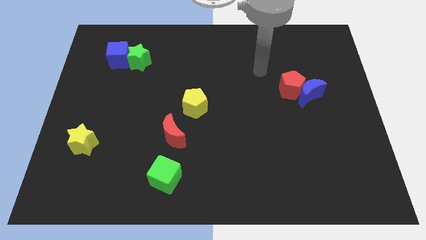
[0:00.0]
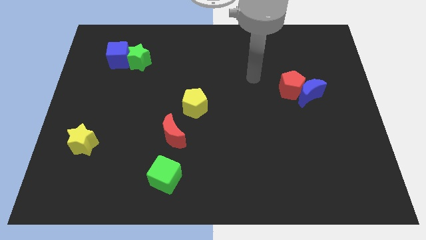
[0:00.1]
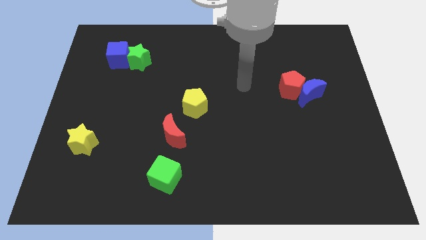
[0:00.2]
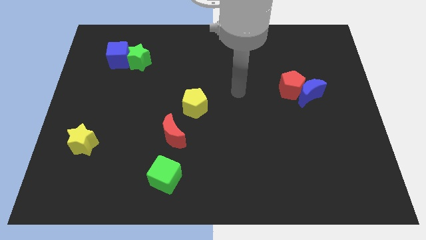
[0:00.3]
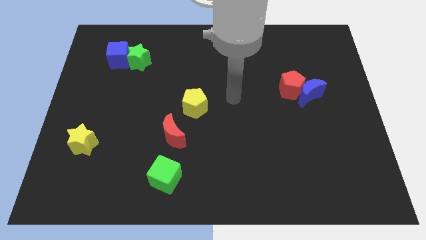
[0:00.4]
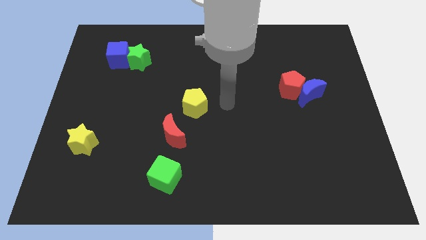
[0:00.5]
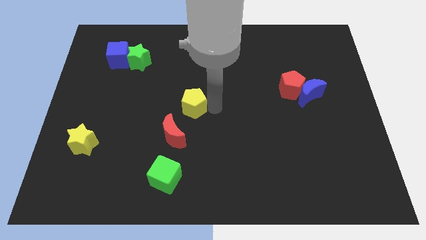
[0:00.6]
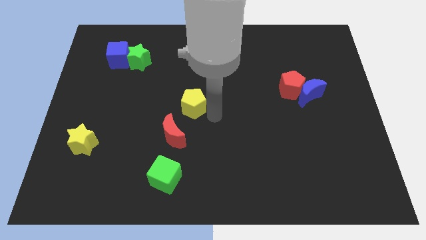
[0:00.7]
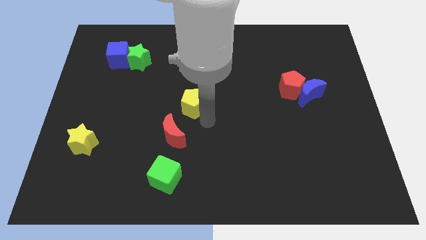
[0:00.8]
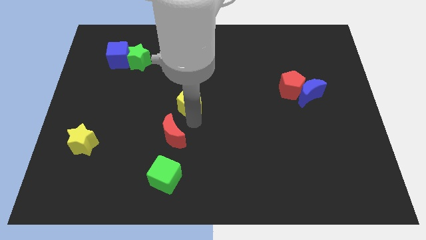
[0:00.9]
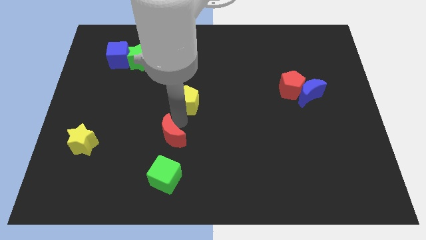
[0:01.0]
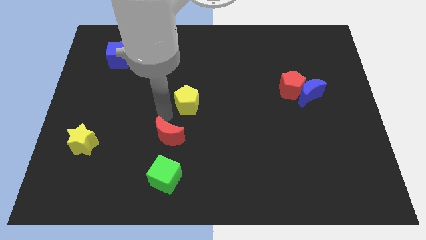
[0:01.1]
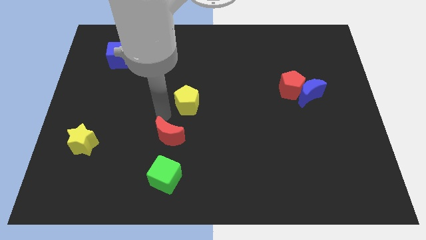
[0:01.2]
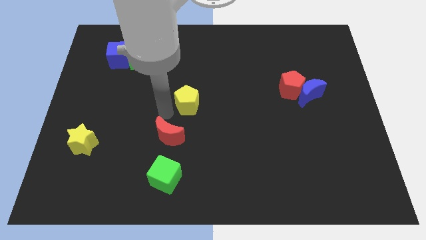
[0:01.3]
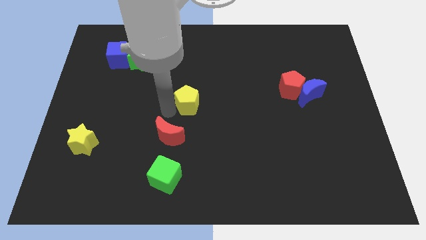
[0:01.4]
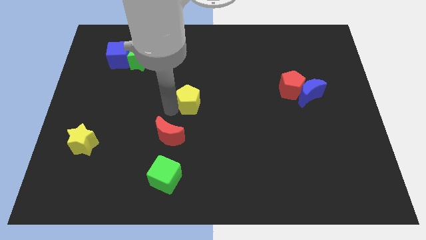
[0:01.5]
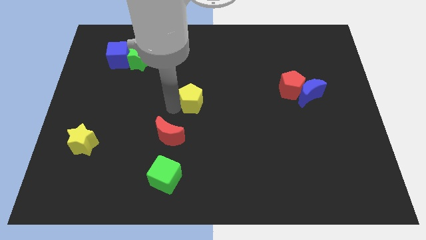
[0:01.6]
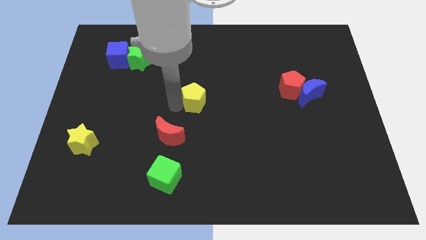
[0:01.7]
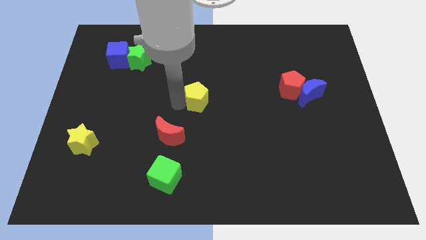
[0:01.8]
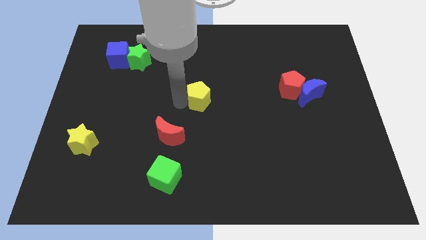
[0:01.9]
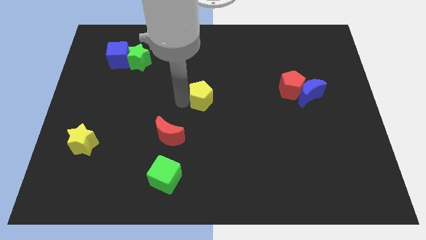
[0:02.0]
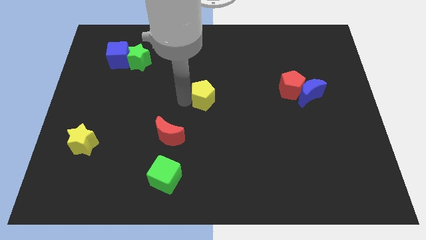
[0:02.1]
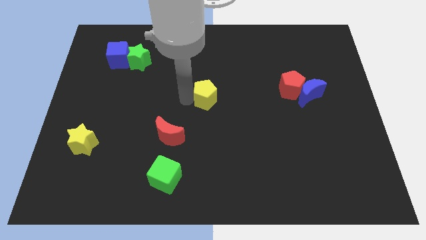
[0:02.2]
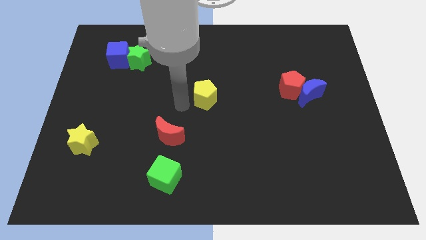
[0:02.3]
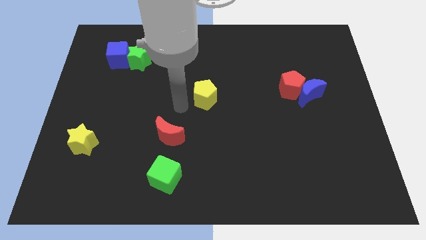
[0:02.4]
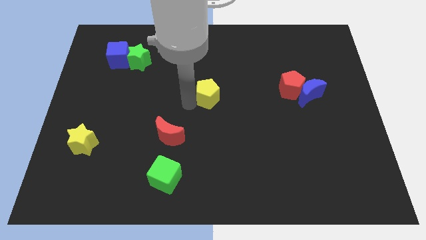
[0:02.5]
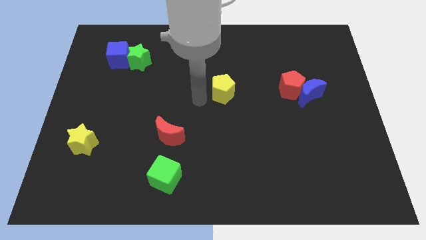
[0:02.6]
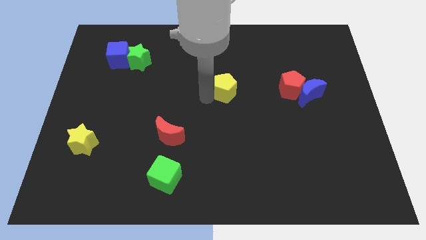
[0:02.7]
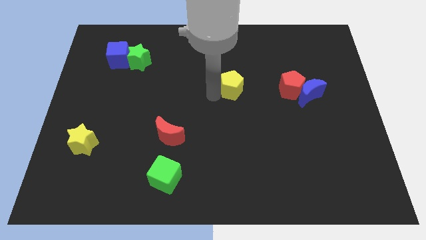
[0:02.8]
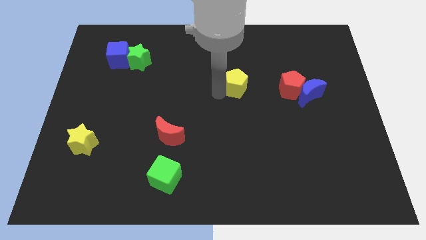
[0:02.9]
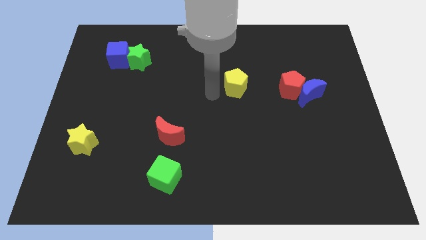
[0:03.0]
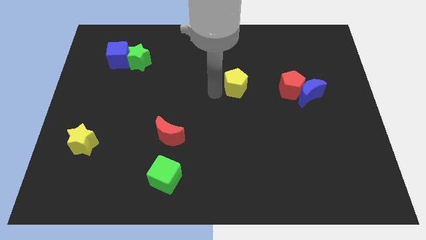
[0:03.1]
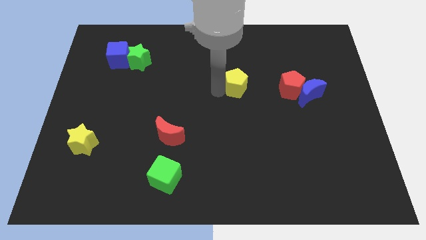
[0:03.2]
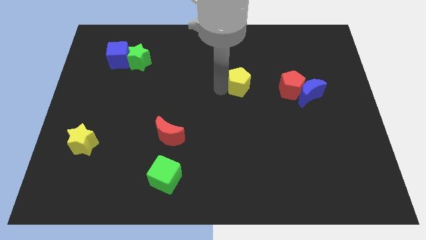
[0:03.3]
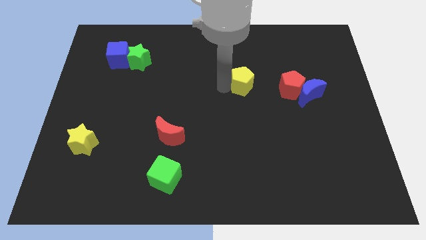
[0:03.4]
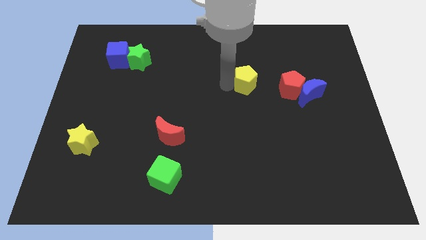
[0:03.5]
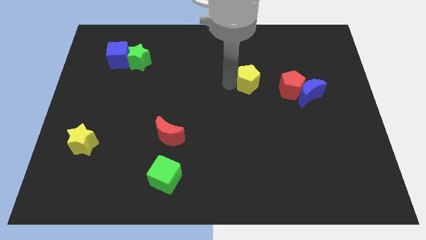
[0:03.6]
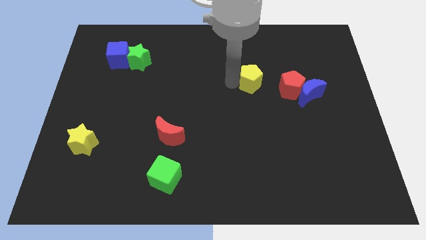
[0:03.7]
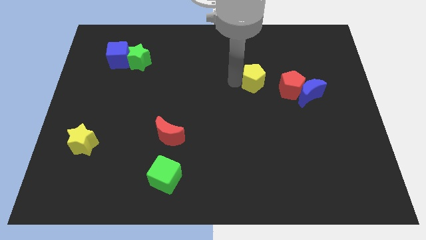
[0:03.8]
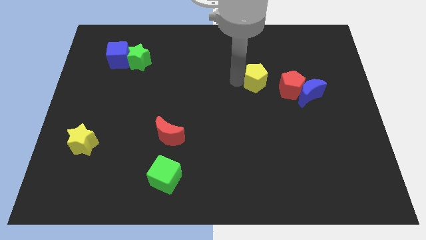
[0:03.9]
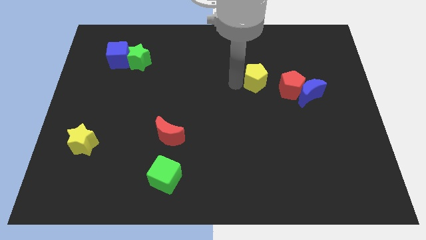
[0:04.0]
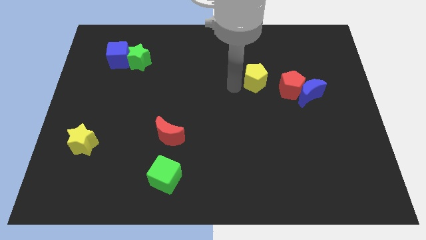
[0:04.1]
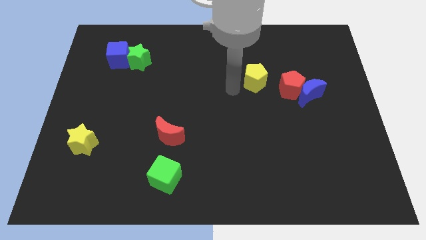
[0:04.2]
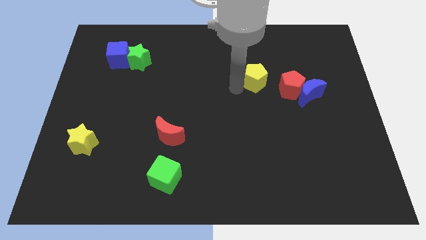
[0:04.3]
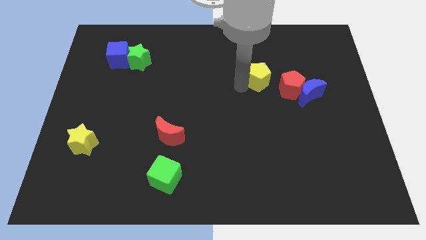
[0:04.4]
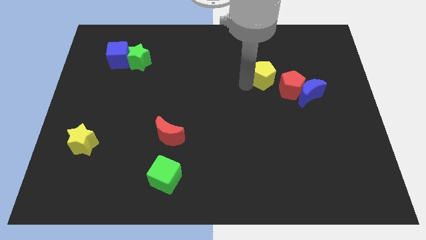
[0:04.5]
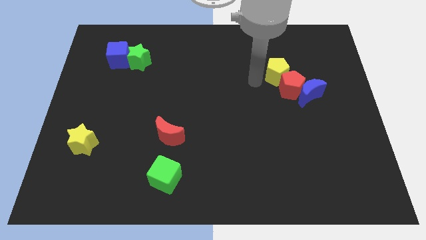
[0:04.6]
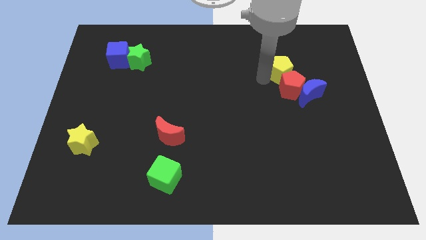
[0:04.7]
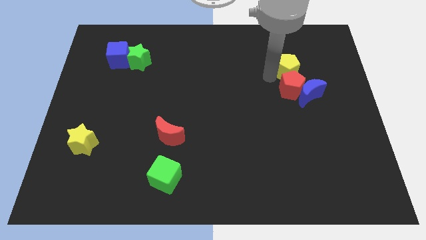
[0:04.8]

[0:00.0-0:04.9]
put the yellow pentagon above the blue moon

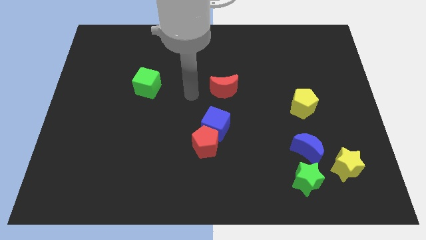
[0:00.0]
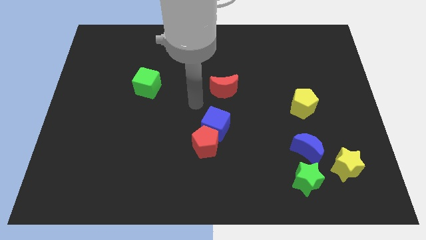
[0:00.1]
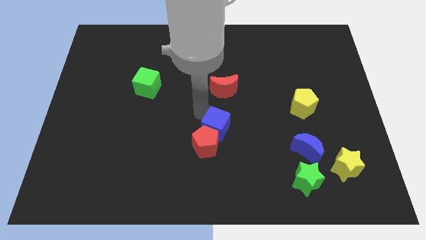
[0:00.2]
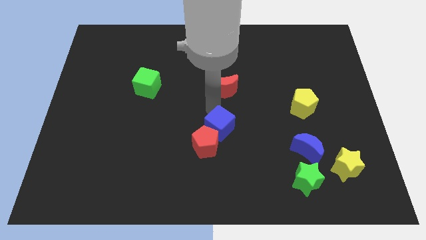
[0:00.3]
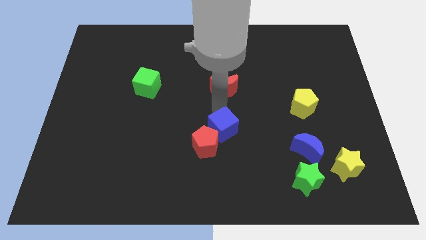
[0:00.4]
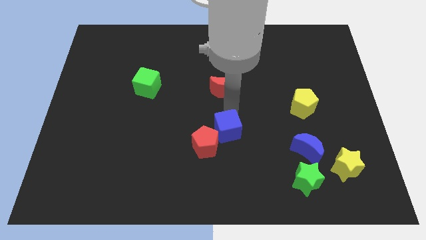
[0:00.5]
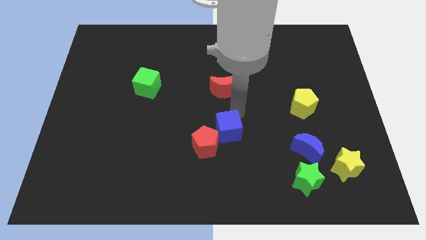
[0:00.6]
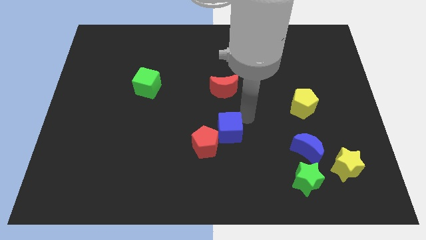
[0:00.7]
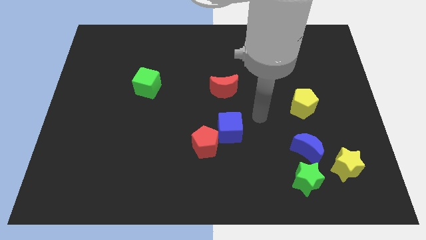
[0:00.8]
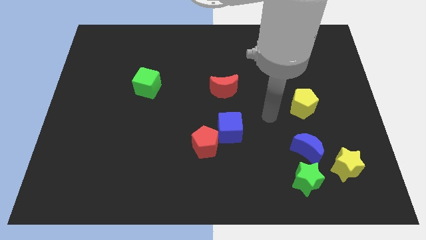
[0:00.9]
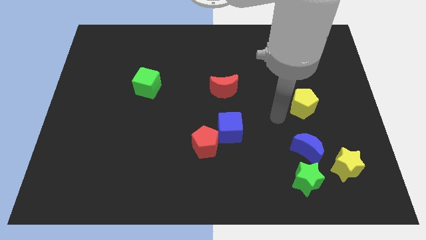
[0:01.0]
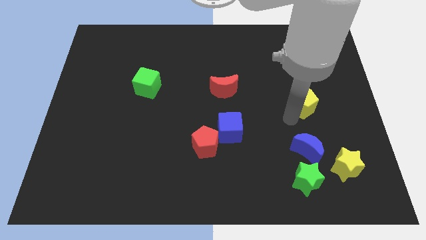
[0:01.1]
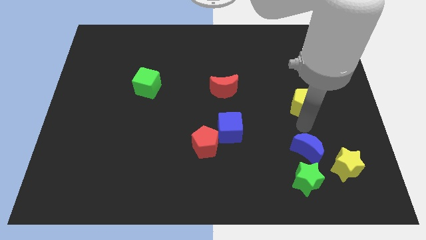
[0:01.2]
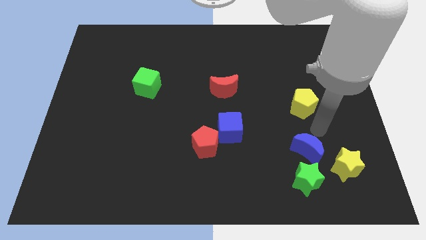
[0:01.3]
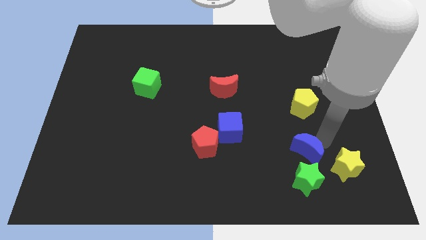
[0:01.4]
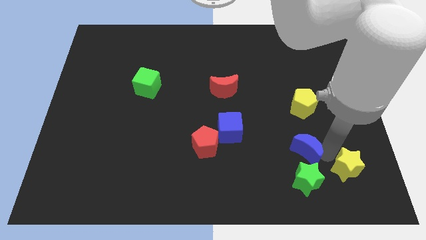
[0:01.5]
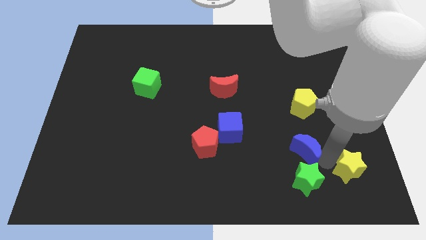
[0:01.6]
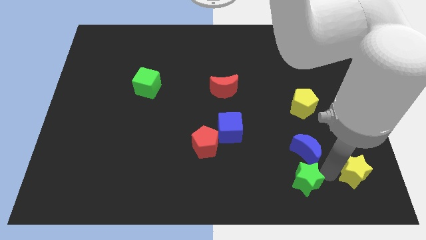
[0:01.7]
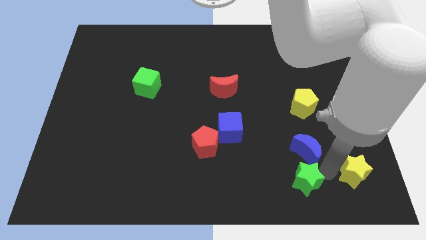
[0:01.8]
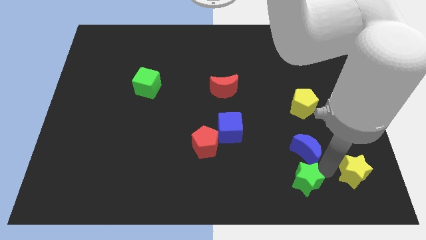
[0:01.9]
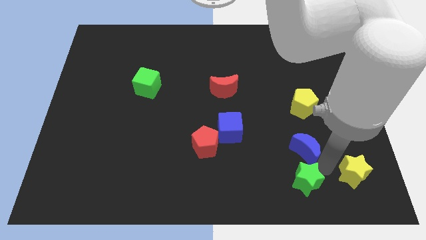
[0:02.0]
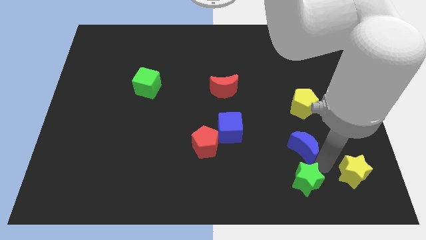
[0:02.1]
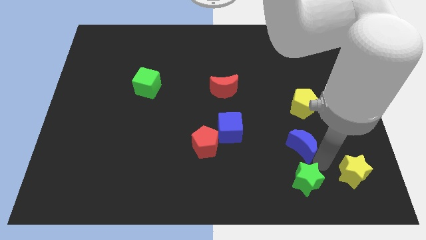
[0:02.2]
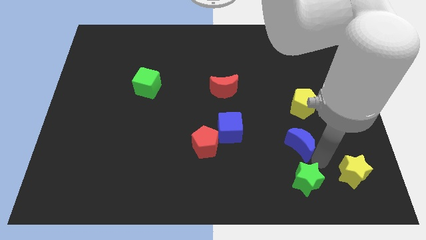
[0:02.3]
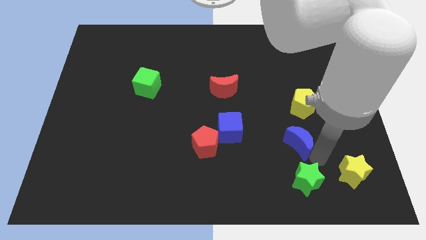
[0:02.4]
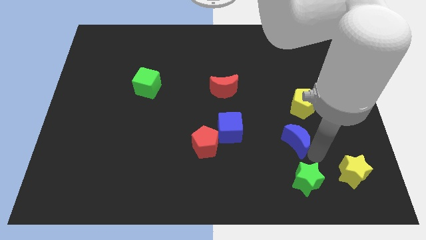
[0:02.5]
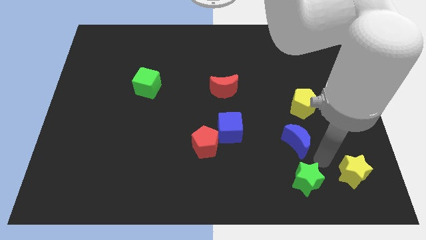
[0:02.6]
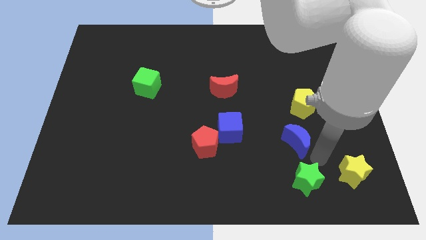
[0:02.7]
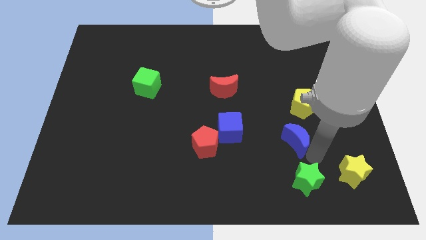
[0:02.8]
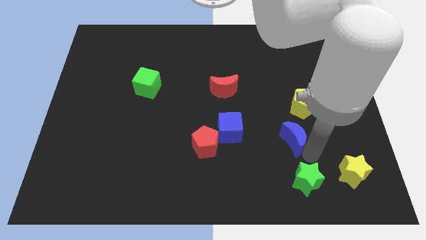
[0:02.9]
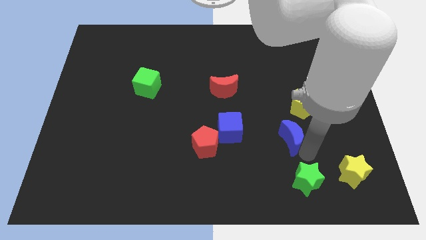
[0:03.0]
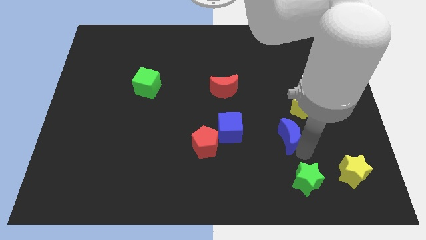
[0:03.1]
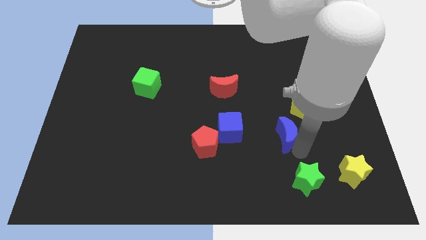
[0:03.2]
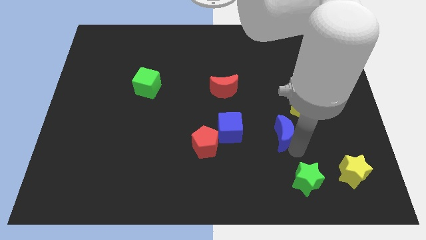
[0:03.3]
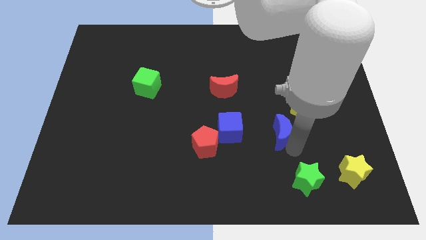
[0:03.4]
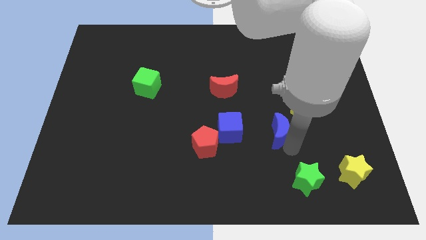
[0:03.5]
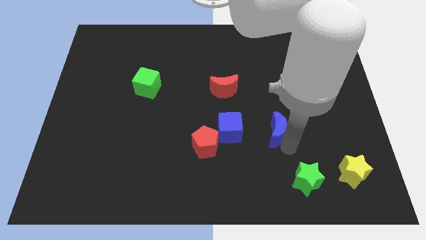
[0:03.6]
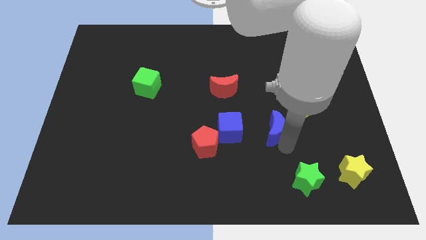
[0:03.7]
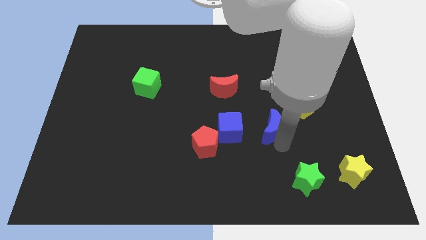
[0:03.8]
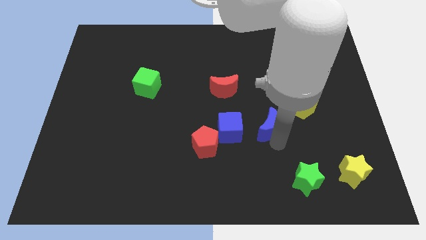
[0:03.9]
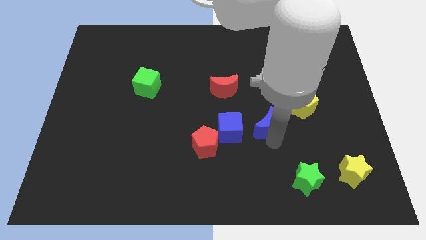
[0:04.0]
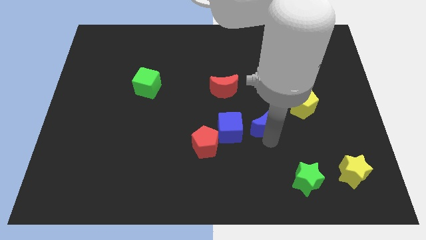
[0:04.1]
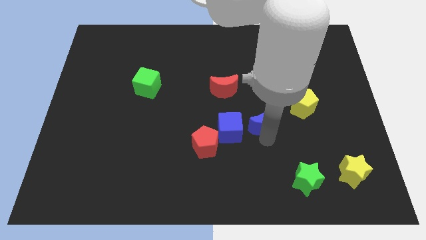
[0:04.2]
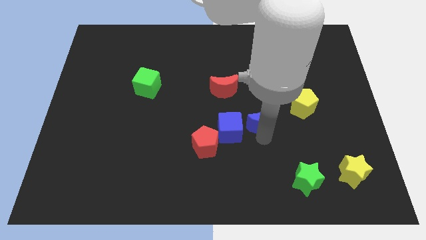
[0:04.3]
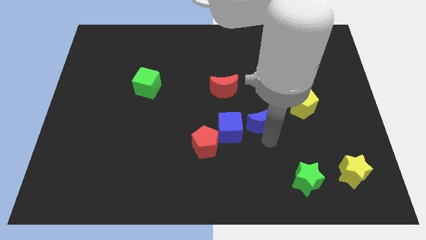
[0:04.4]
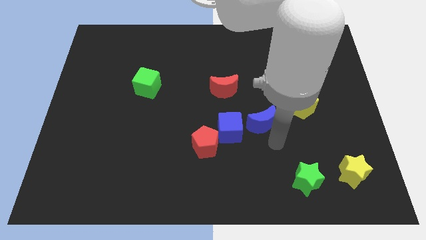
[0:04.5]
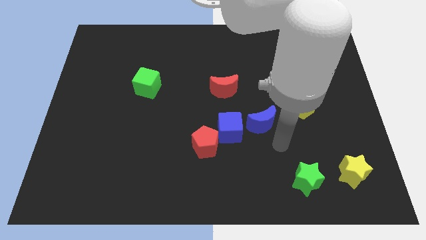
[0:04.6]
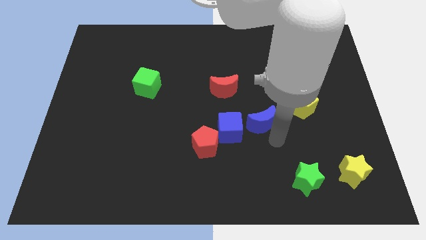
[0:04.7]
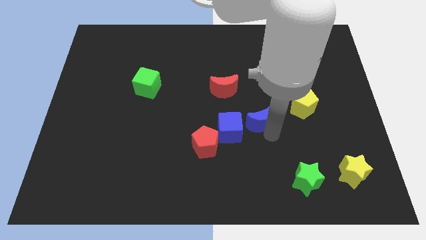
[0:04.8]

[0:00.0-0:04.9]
push the blue moon to the bottom right of the red moon
